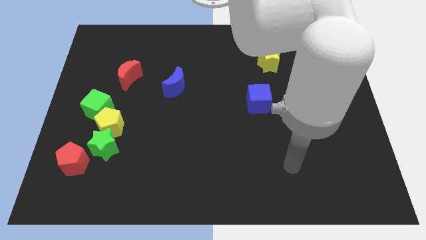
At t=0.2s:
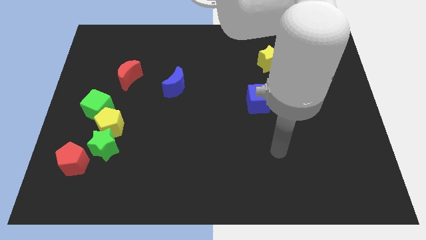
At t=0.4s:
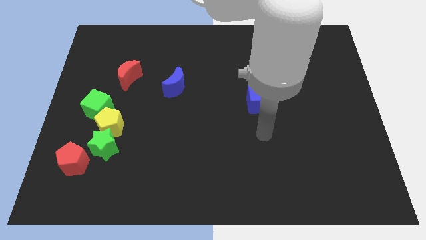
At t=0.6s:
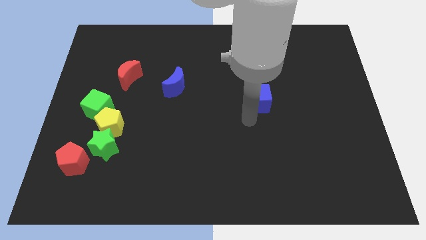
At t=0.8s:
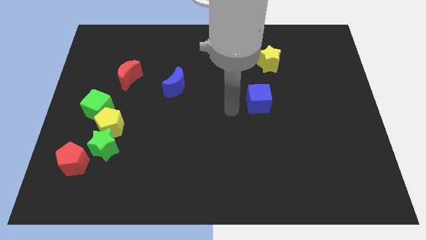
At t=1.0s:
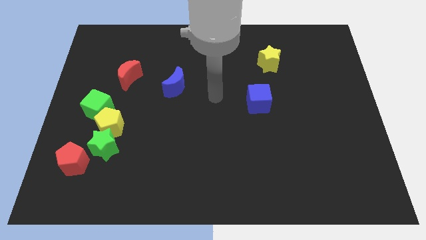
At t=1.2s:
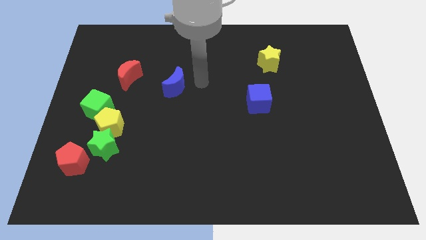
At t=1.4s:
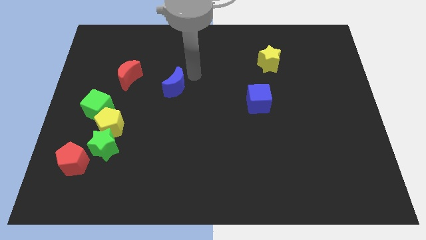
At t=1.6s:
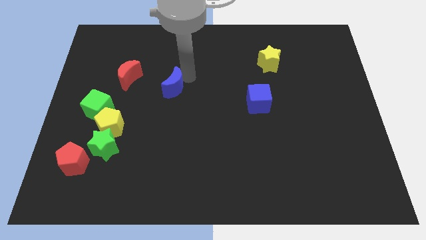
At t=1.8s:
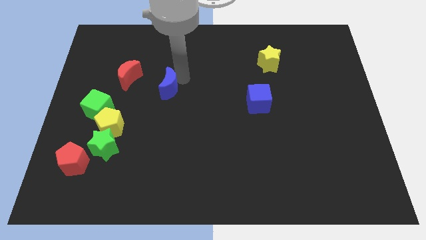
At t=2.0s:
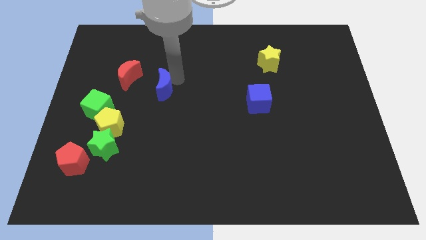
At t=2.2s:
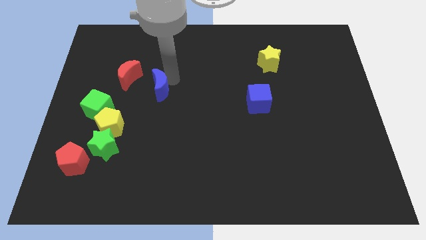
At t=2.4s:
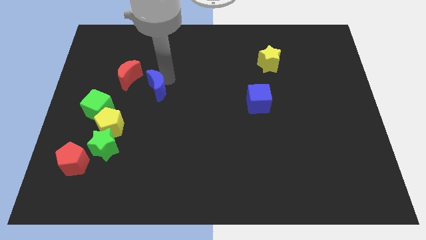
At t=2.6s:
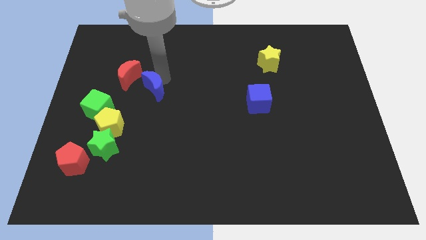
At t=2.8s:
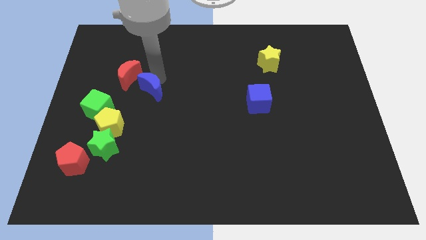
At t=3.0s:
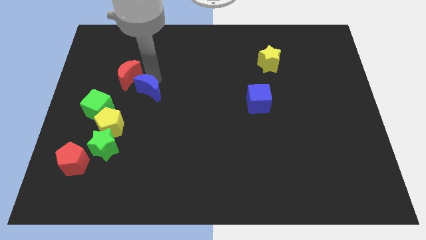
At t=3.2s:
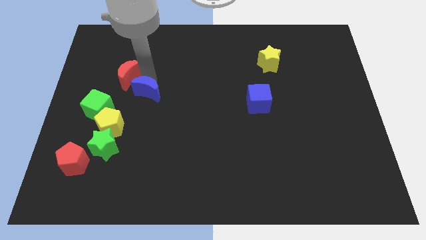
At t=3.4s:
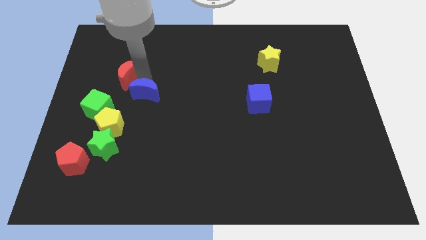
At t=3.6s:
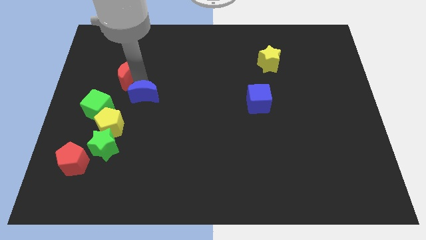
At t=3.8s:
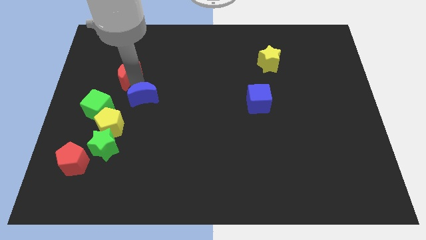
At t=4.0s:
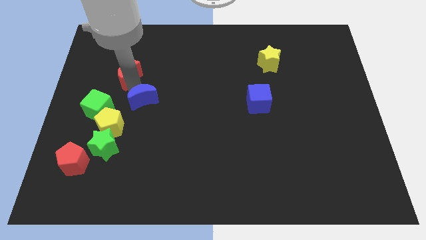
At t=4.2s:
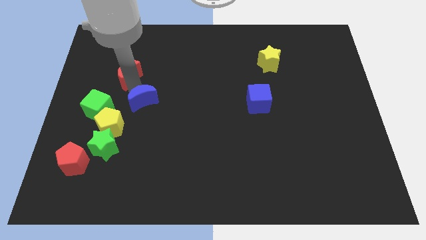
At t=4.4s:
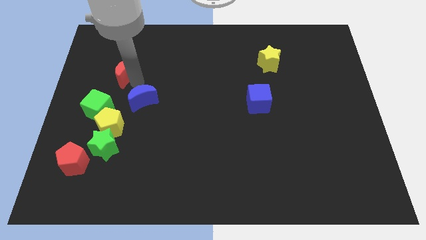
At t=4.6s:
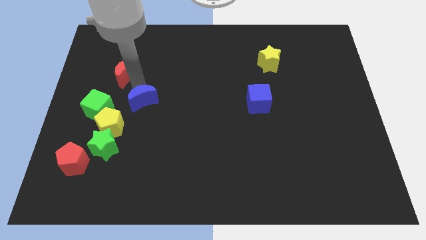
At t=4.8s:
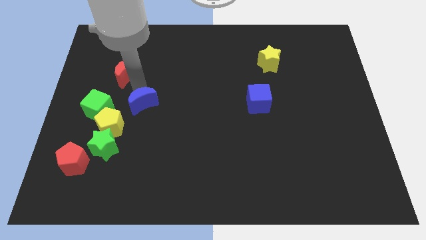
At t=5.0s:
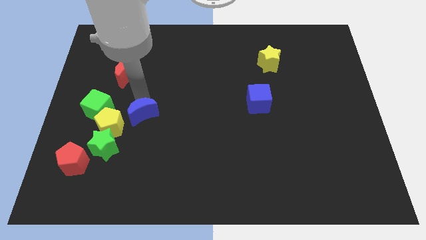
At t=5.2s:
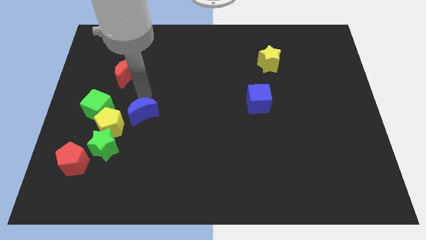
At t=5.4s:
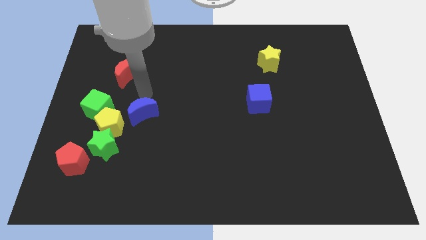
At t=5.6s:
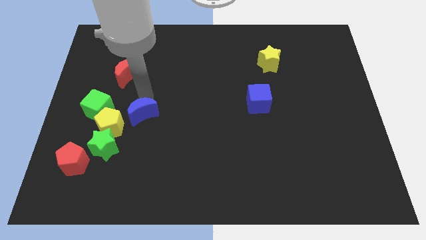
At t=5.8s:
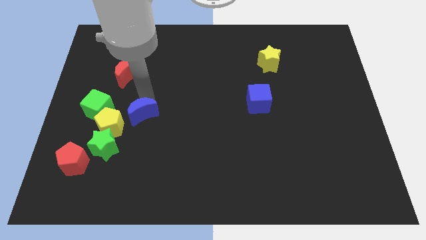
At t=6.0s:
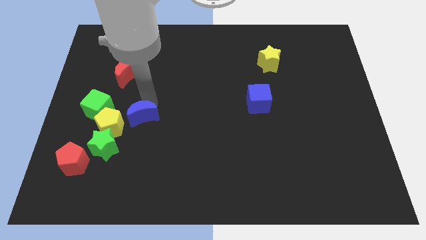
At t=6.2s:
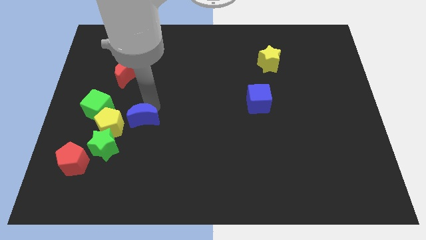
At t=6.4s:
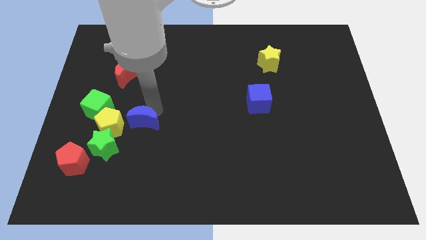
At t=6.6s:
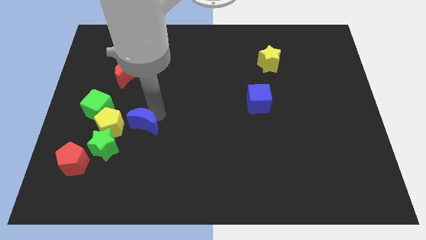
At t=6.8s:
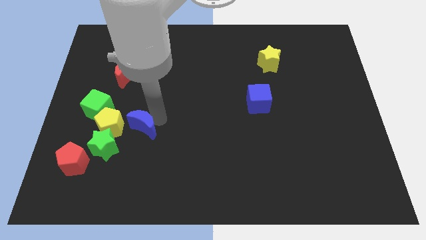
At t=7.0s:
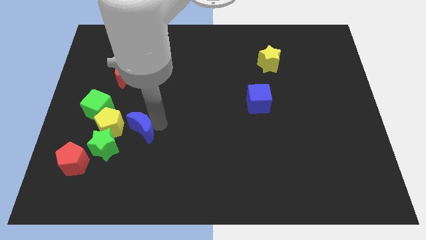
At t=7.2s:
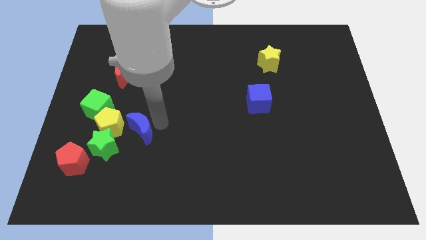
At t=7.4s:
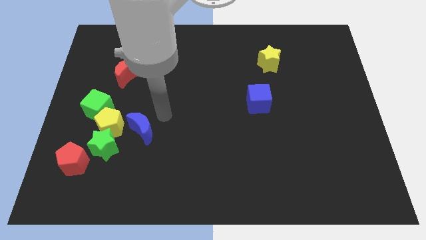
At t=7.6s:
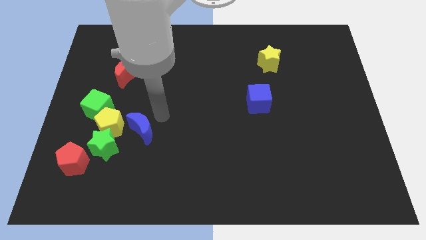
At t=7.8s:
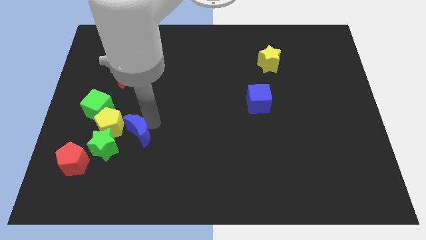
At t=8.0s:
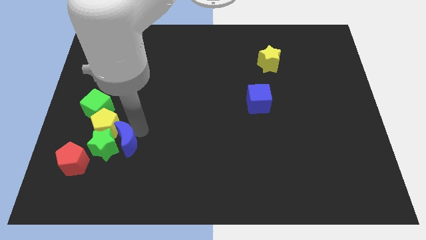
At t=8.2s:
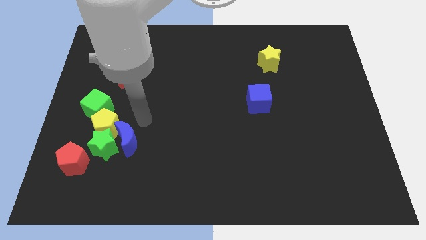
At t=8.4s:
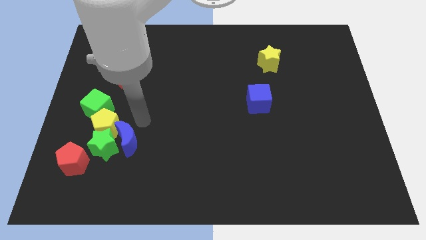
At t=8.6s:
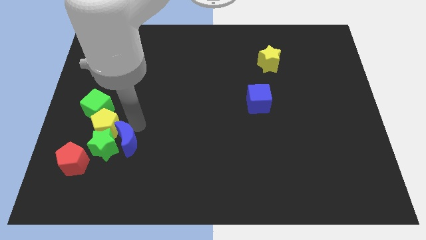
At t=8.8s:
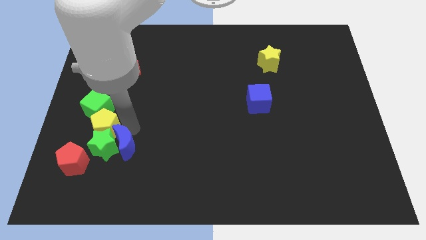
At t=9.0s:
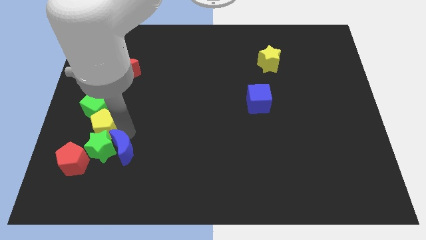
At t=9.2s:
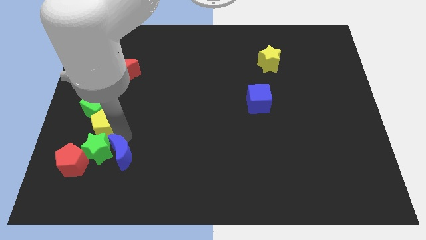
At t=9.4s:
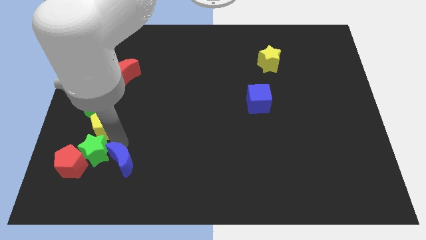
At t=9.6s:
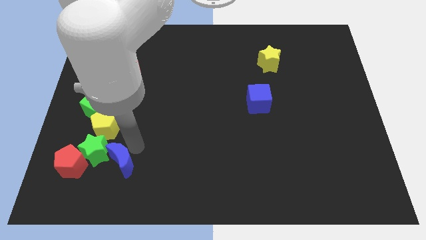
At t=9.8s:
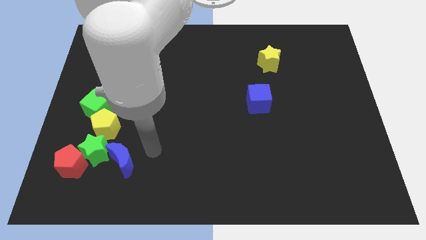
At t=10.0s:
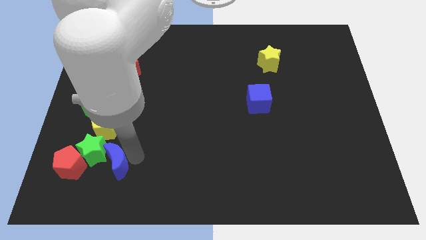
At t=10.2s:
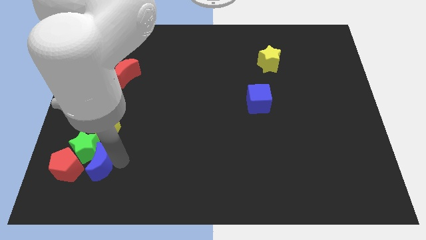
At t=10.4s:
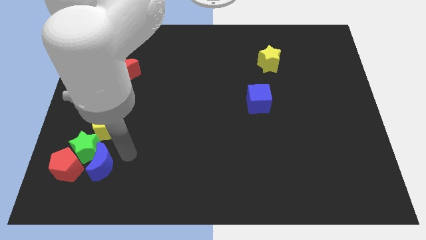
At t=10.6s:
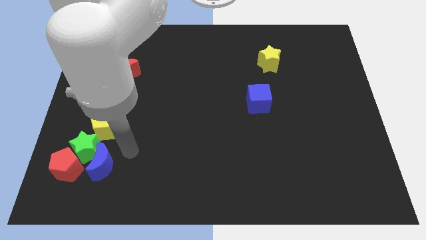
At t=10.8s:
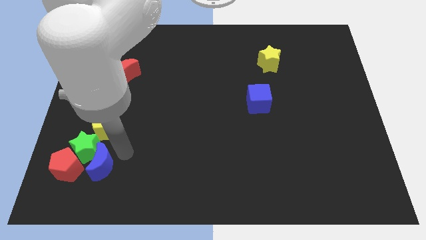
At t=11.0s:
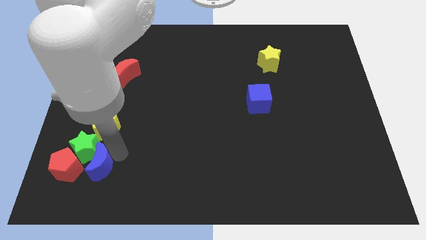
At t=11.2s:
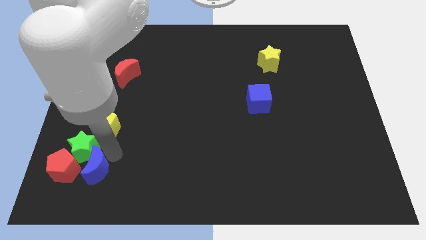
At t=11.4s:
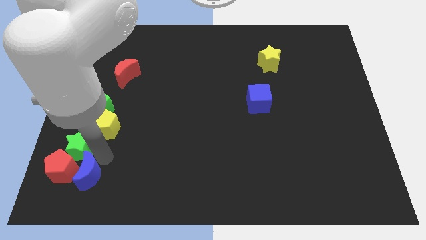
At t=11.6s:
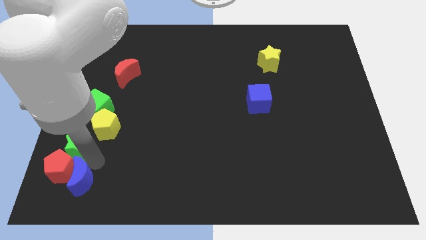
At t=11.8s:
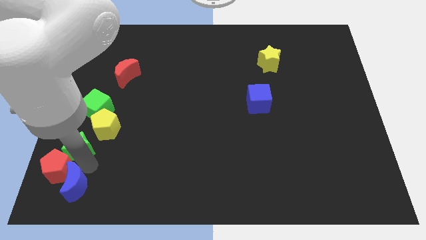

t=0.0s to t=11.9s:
slide the blue moon to the bottom left corner

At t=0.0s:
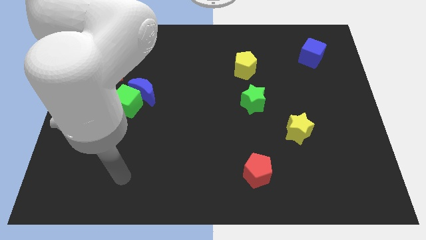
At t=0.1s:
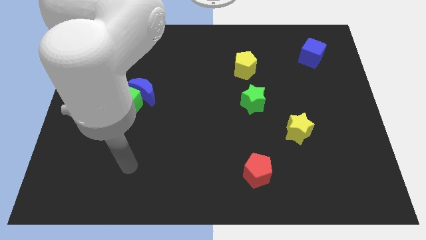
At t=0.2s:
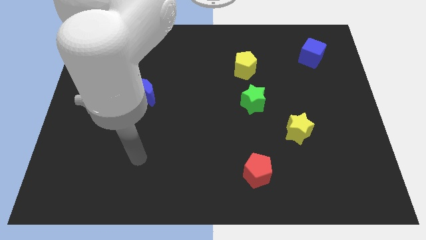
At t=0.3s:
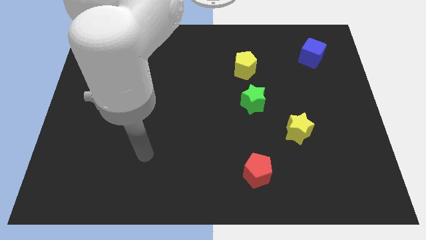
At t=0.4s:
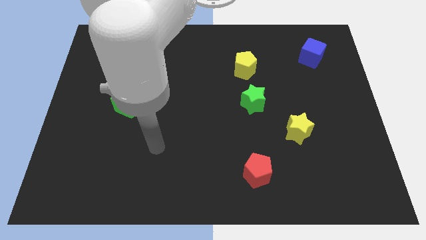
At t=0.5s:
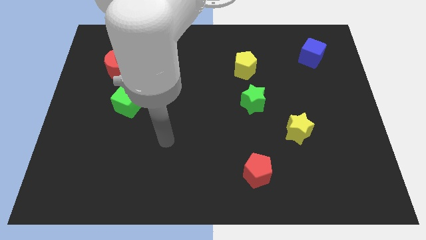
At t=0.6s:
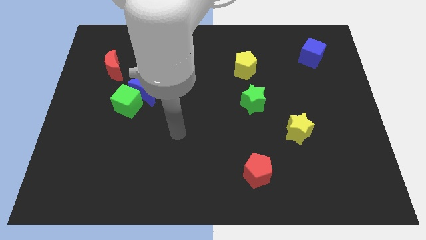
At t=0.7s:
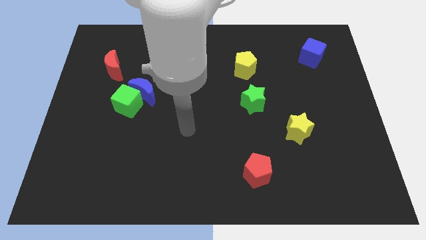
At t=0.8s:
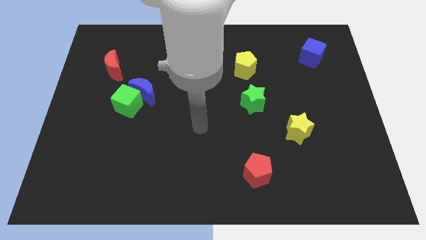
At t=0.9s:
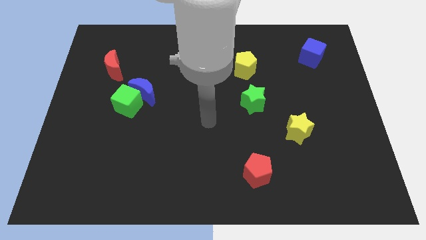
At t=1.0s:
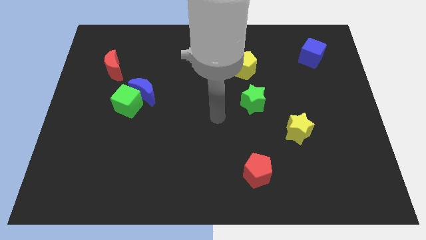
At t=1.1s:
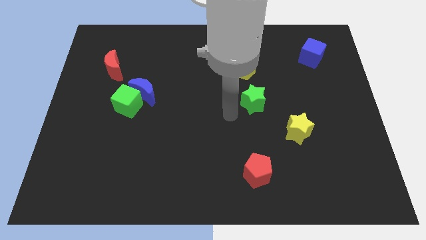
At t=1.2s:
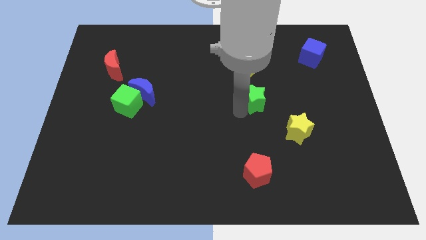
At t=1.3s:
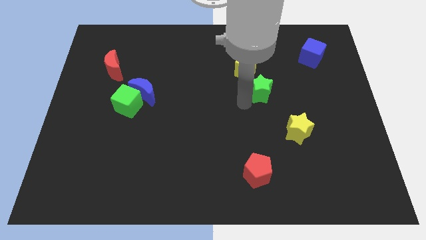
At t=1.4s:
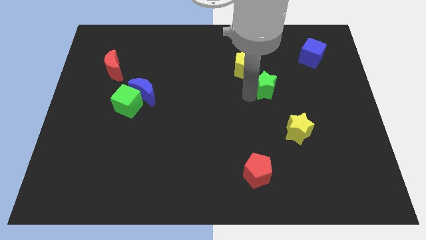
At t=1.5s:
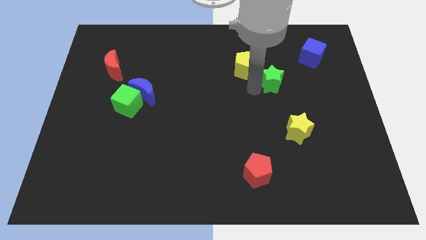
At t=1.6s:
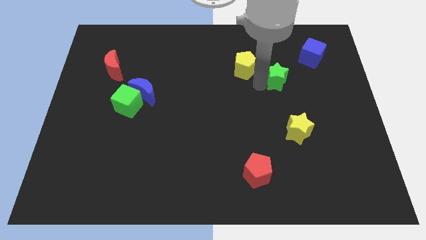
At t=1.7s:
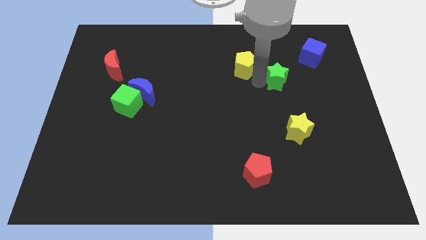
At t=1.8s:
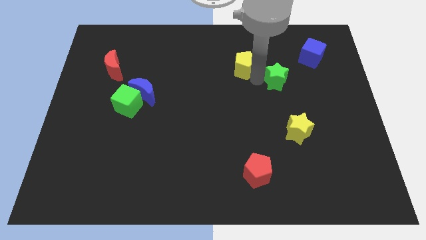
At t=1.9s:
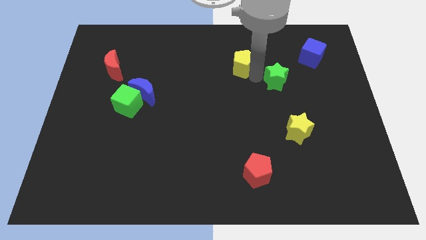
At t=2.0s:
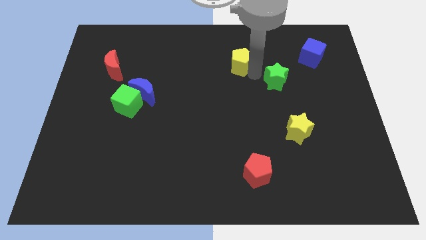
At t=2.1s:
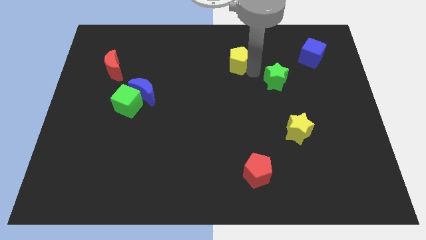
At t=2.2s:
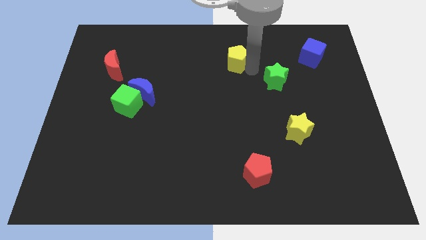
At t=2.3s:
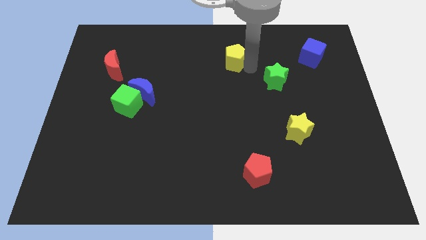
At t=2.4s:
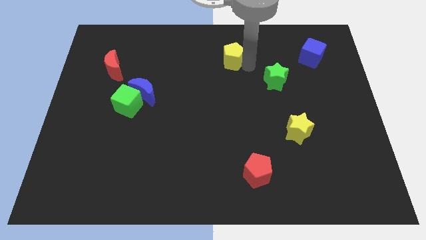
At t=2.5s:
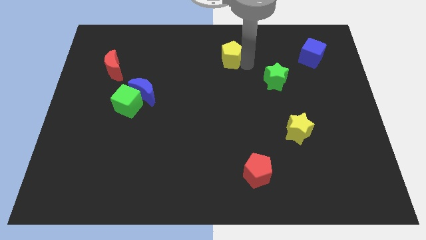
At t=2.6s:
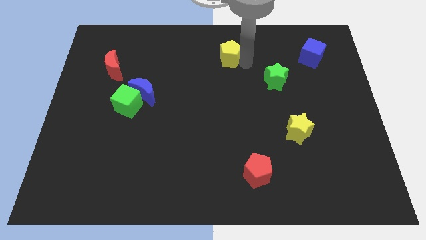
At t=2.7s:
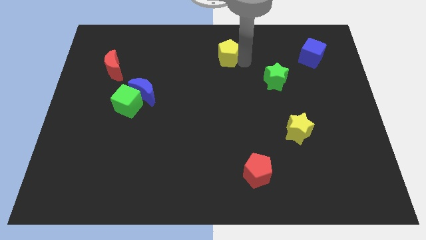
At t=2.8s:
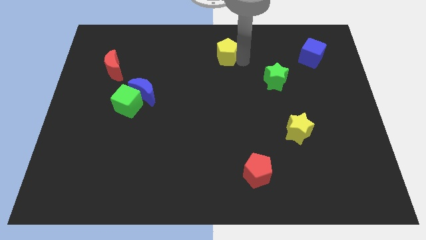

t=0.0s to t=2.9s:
slide the yellow pentagon to the towards your base
